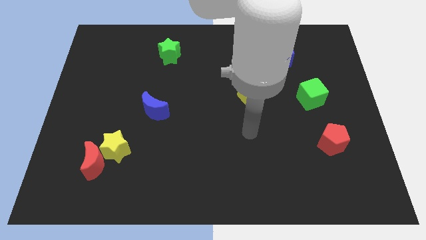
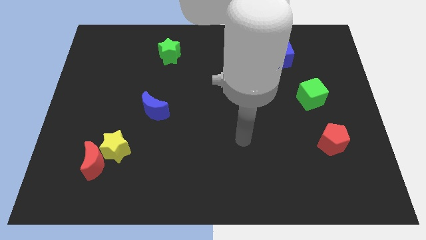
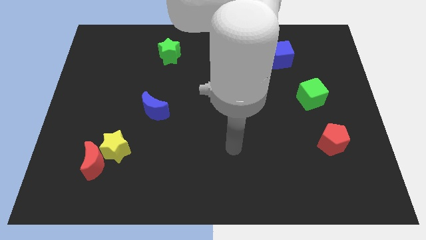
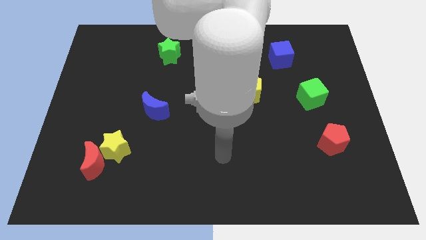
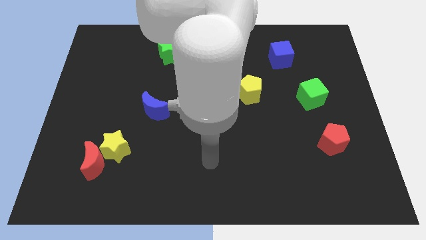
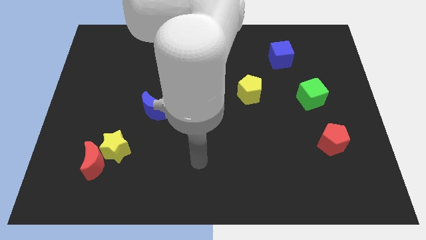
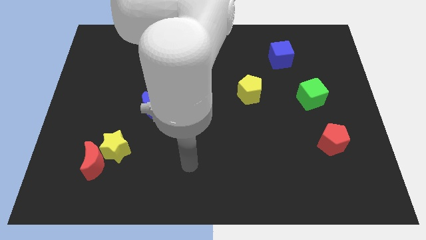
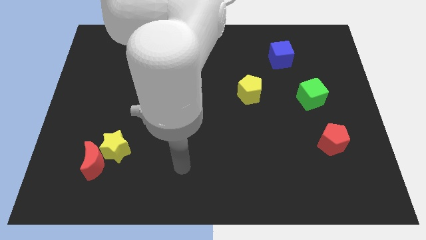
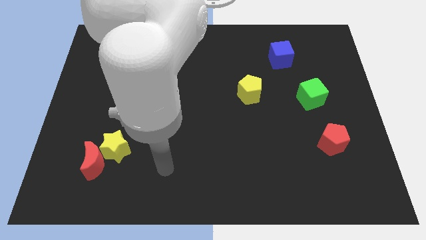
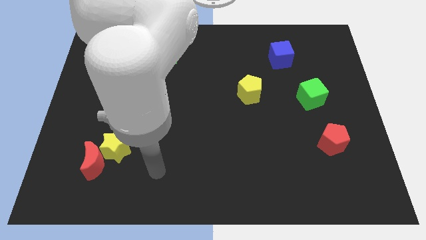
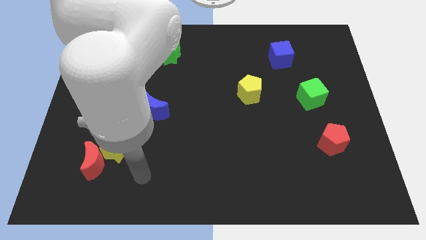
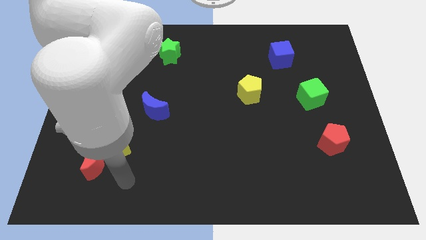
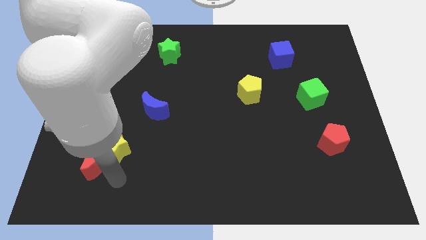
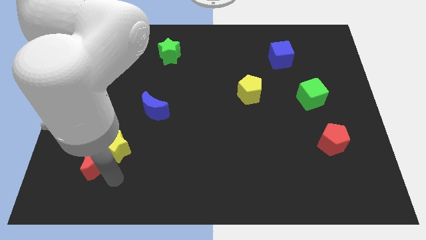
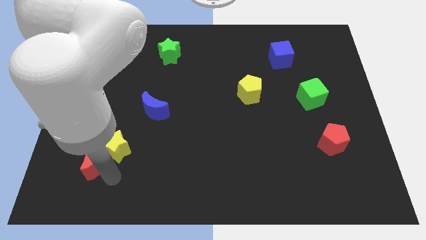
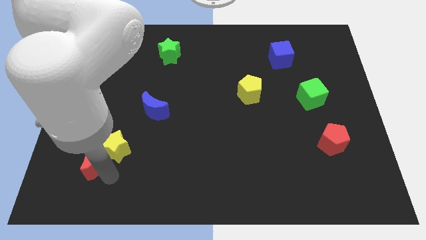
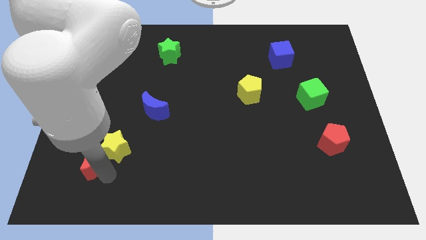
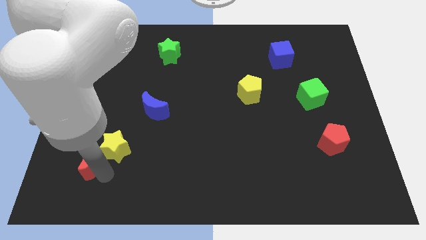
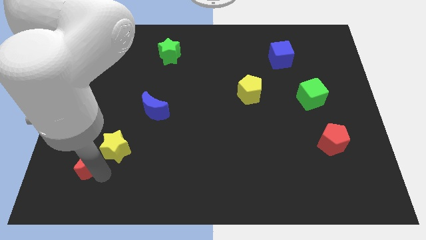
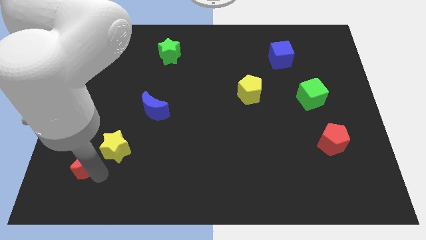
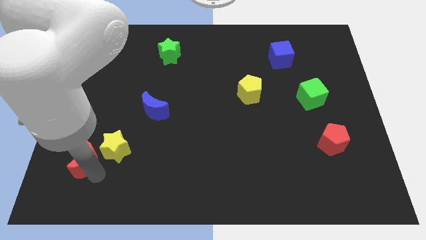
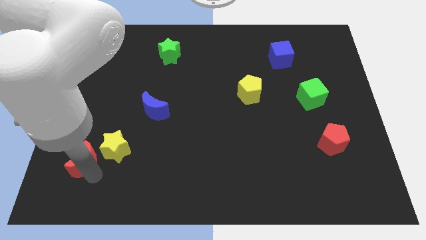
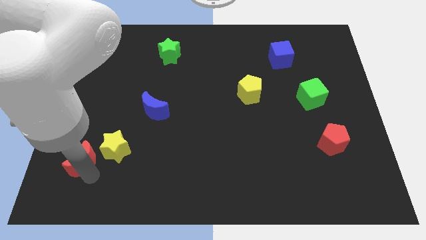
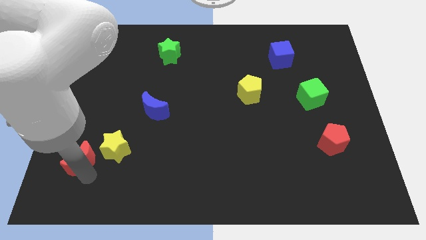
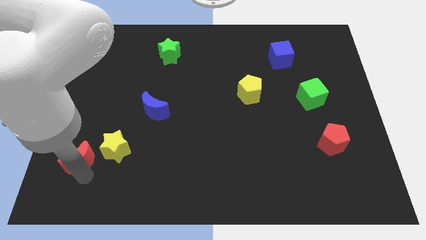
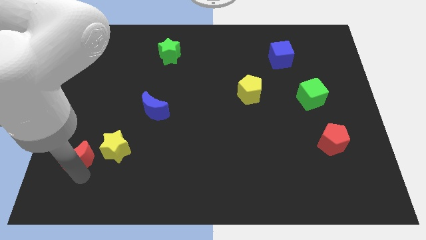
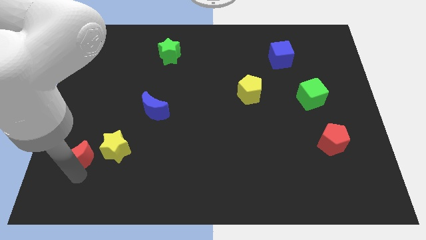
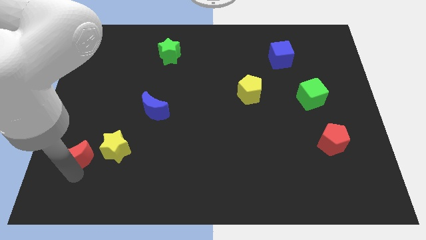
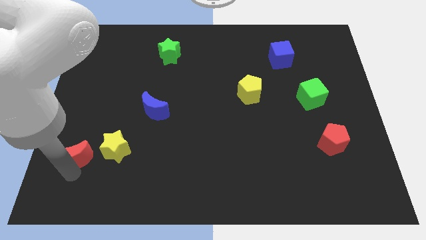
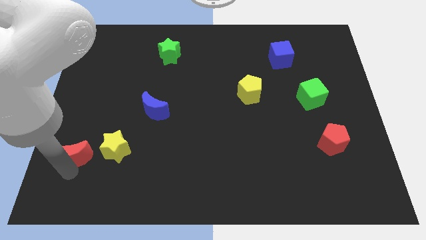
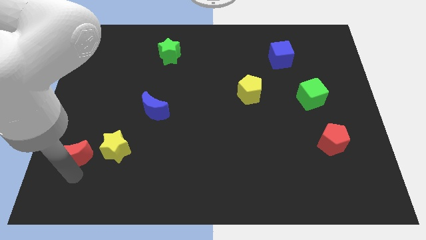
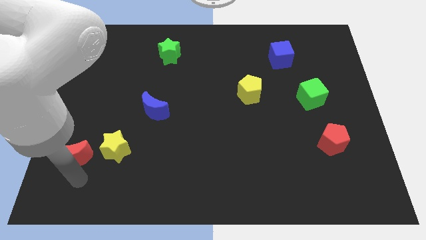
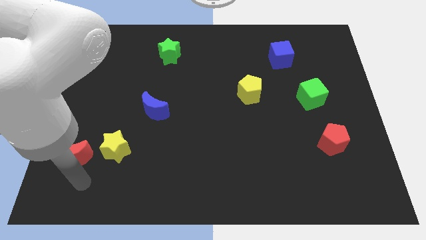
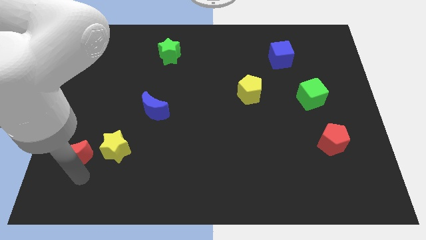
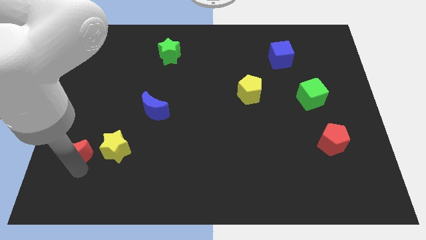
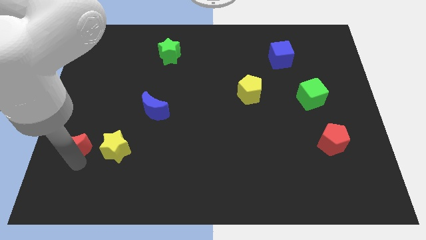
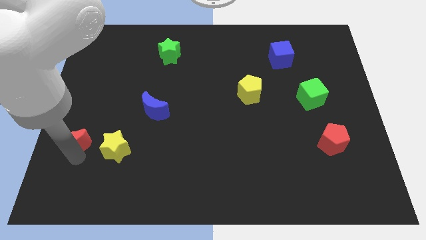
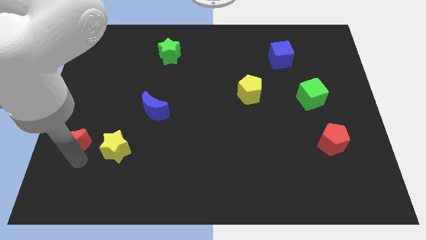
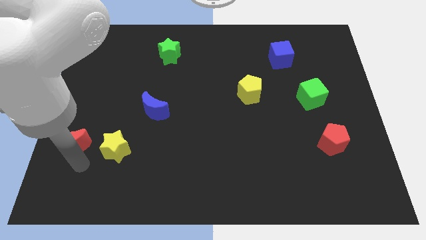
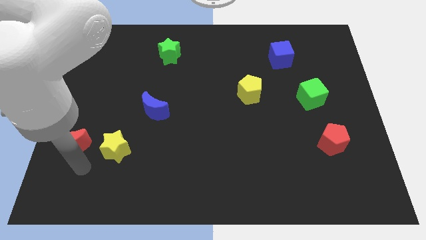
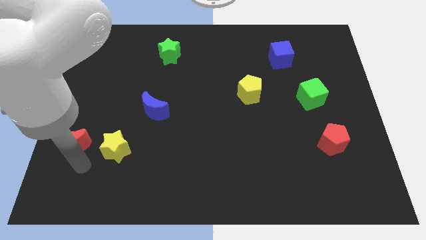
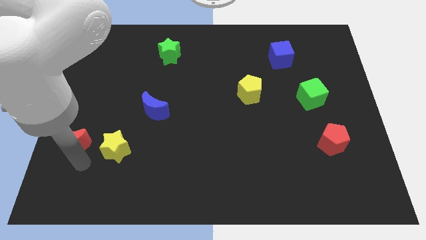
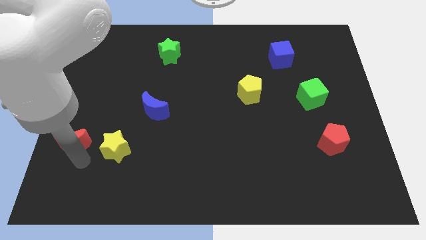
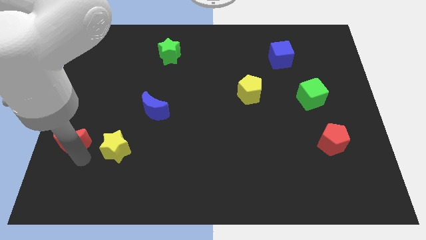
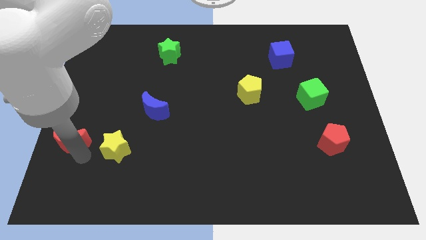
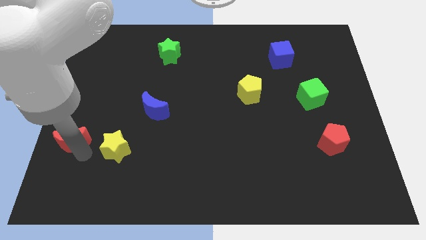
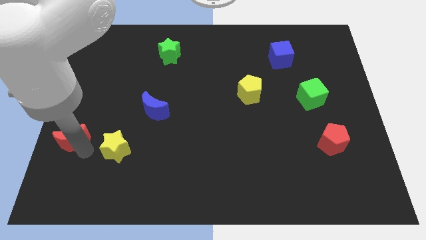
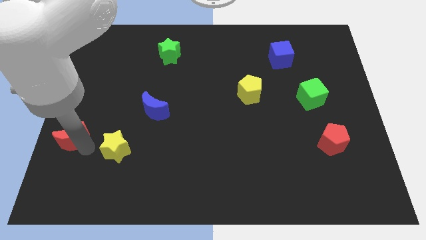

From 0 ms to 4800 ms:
push the red moon to the left side

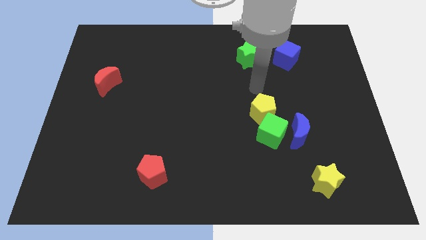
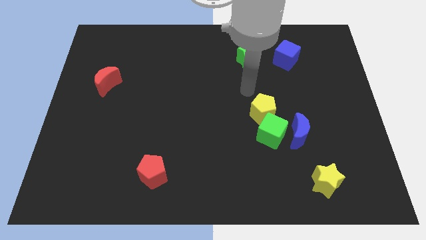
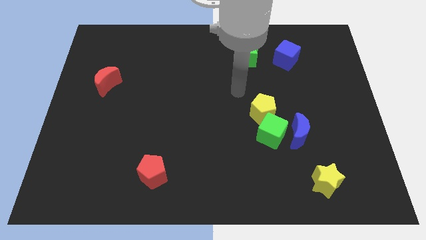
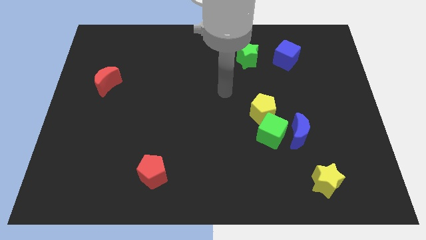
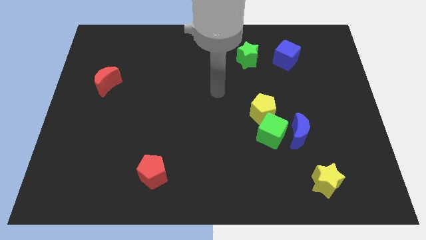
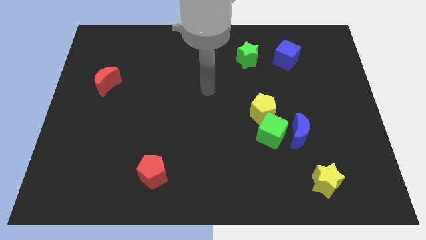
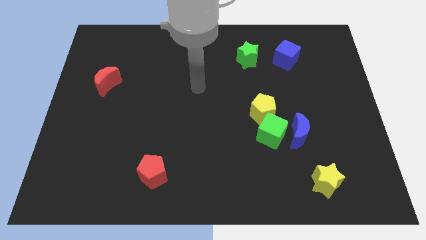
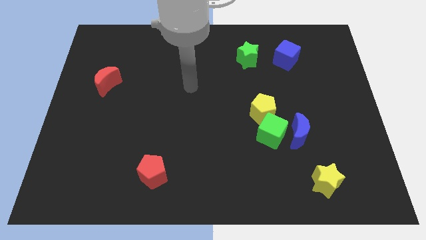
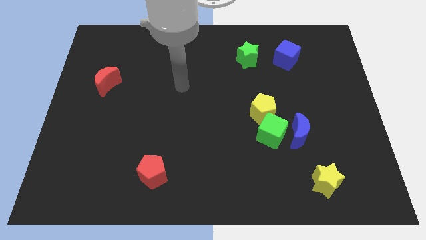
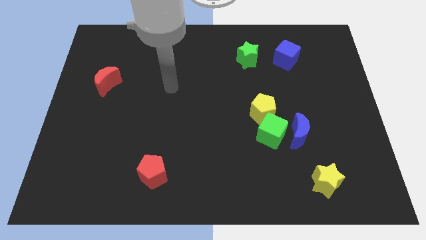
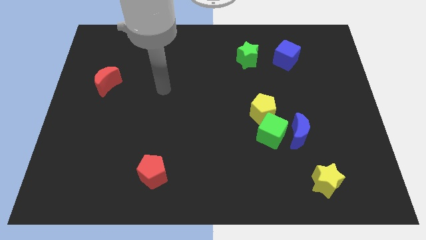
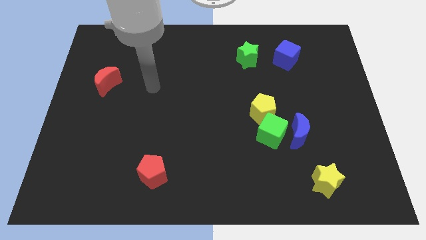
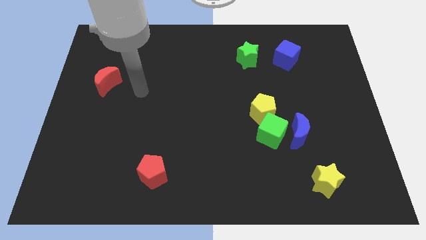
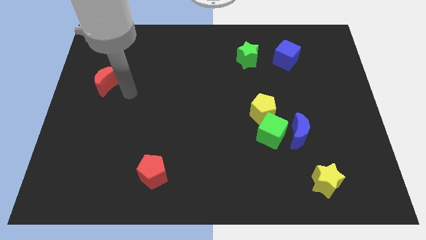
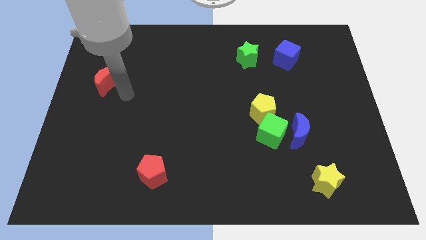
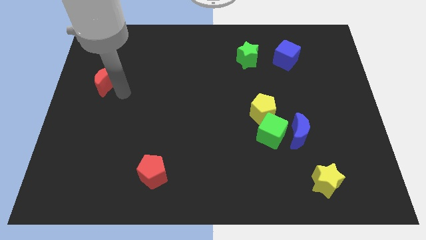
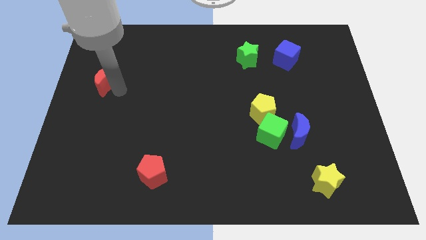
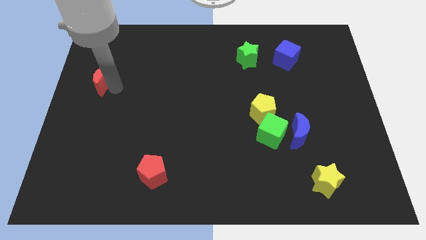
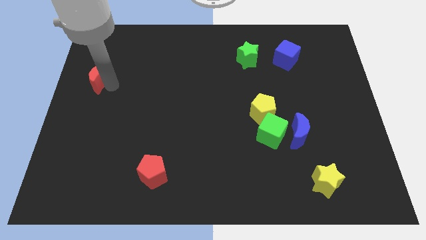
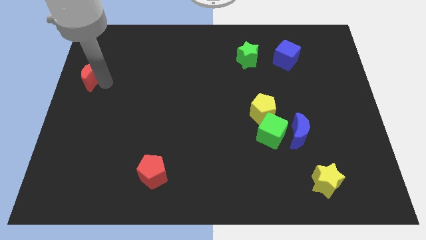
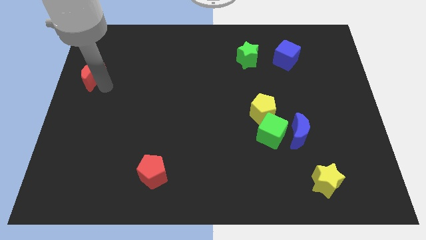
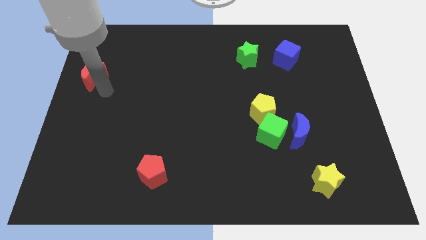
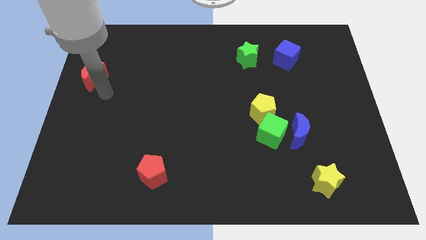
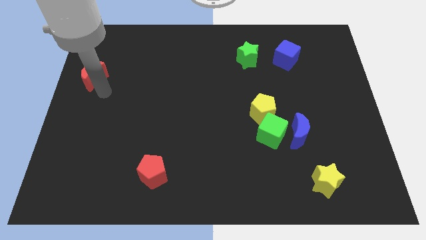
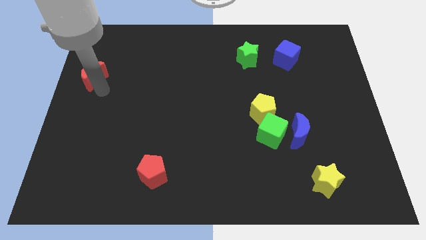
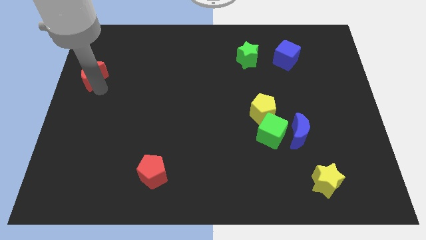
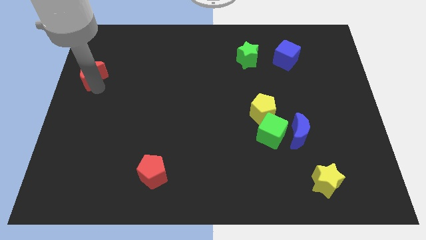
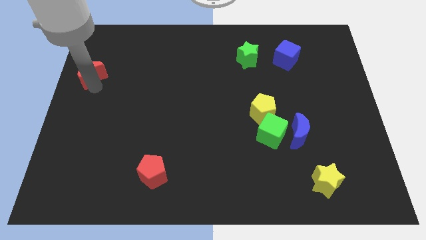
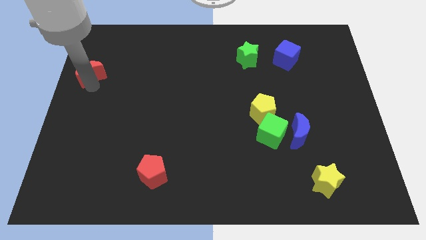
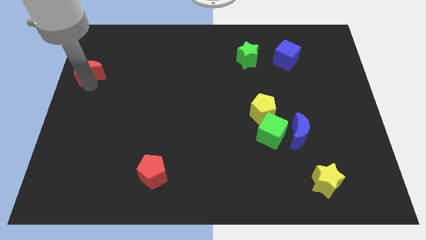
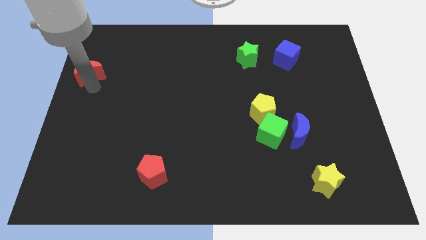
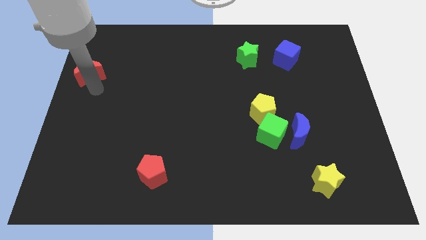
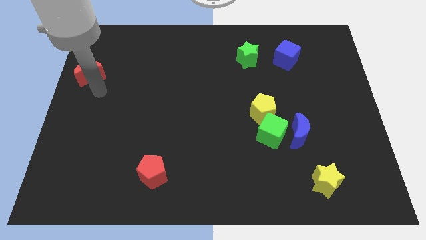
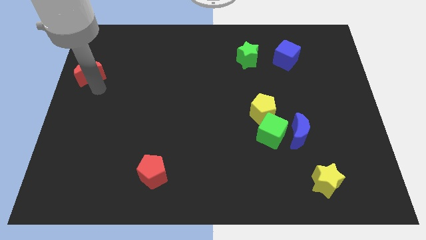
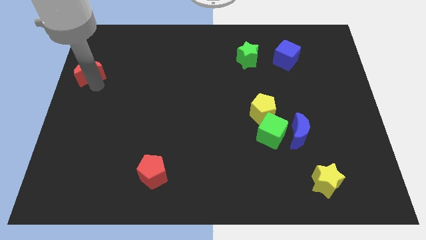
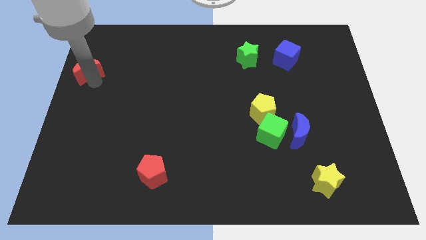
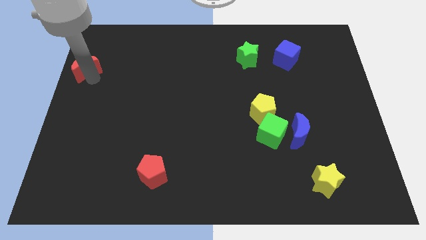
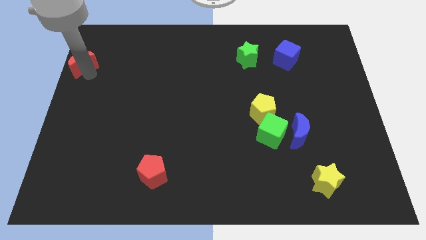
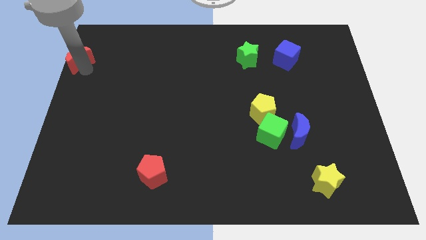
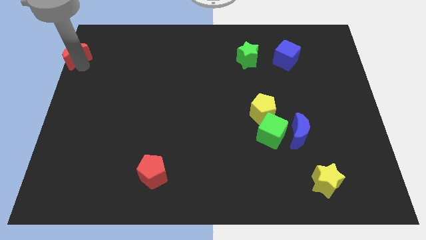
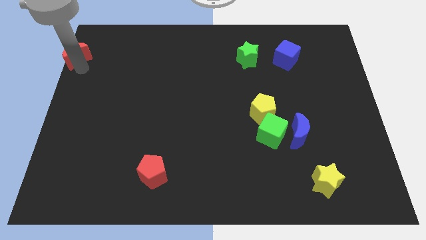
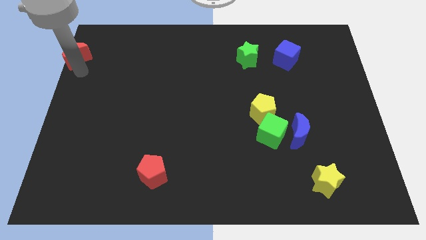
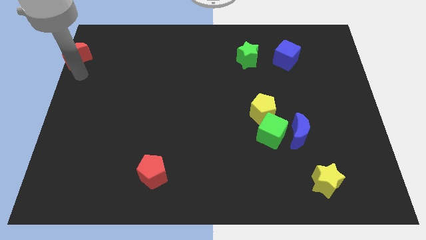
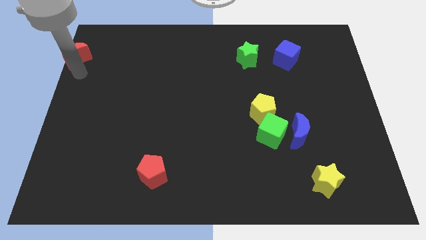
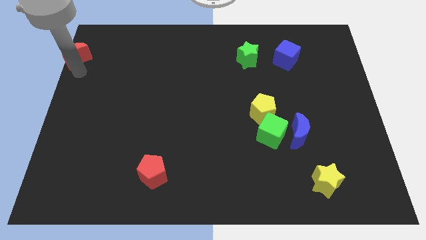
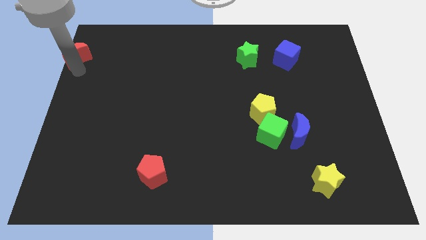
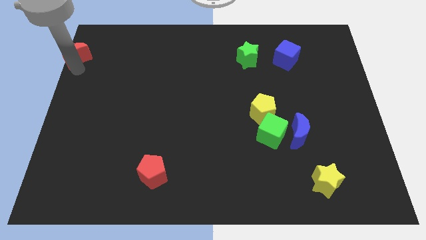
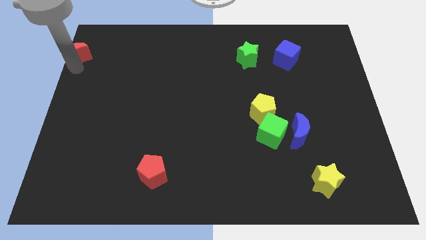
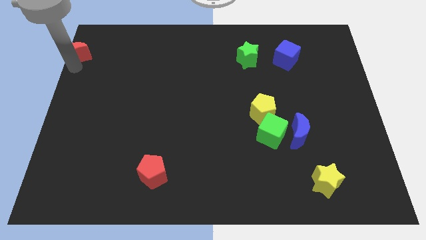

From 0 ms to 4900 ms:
push the red moon to the top left
